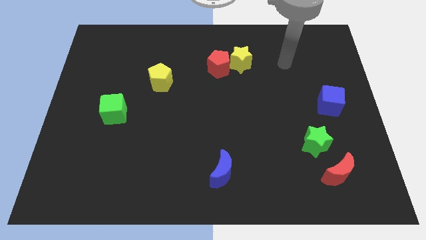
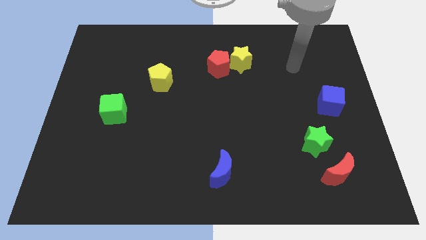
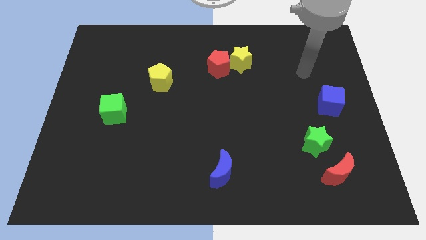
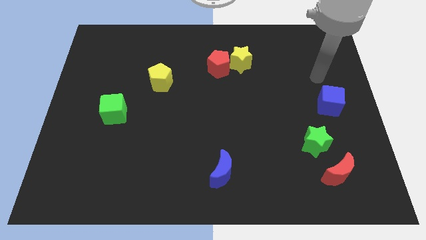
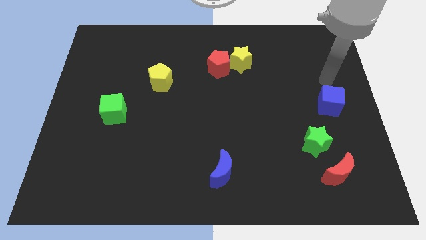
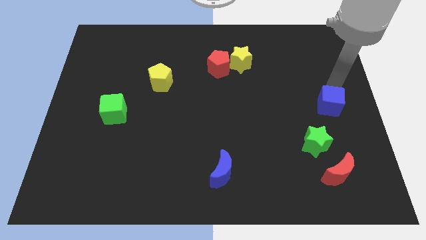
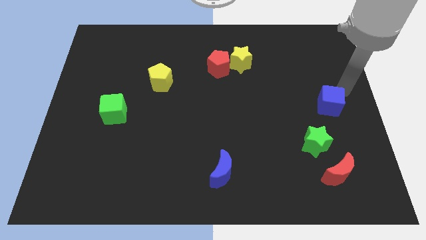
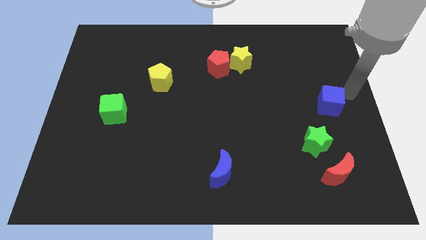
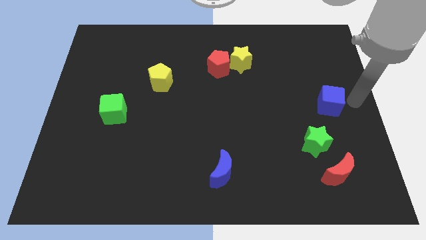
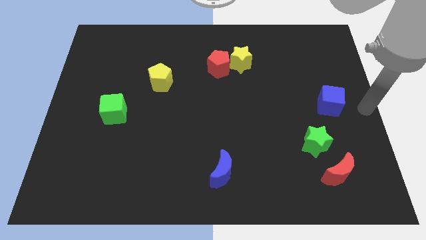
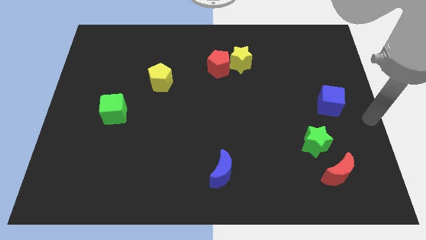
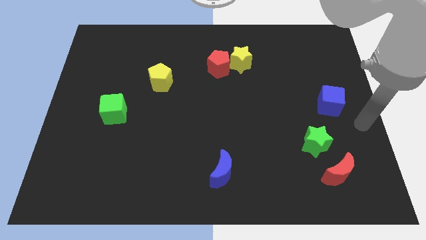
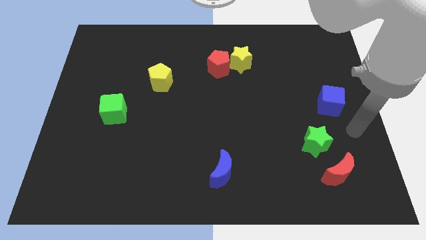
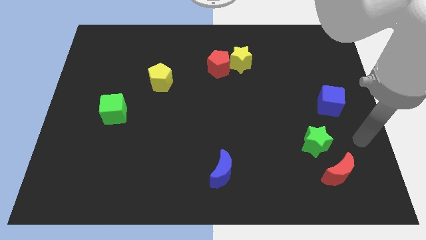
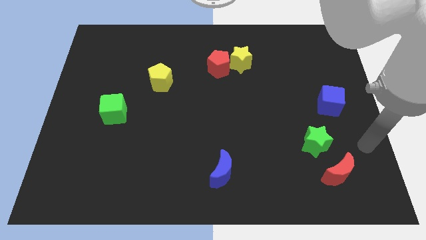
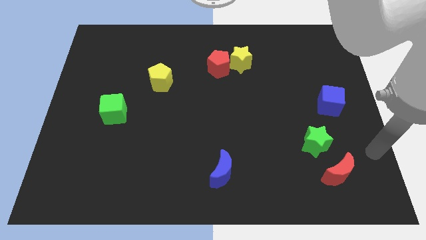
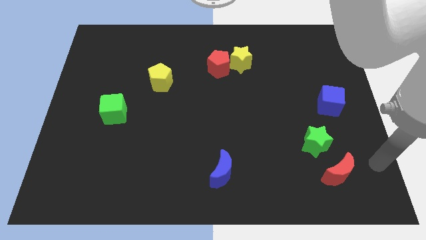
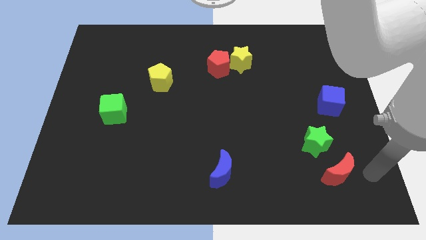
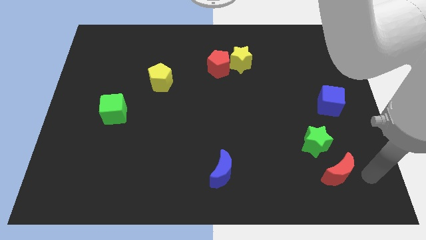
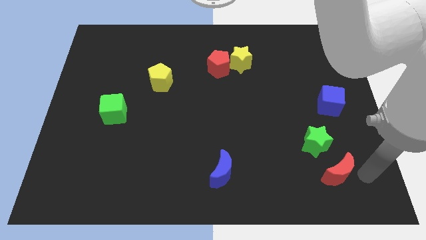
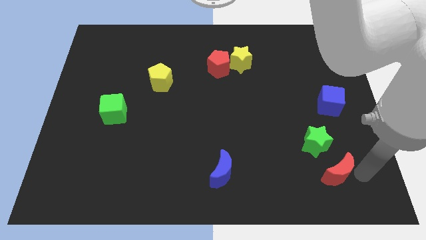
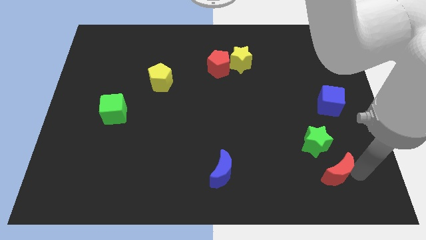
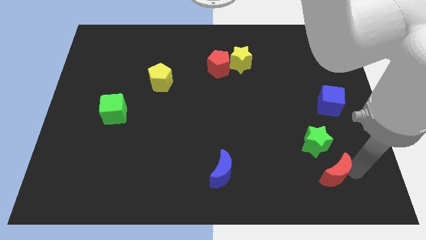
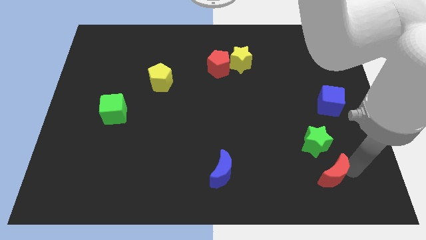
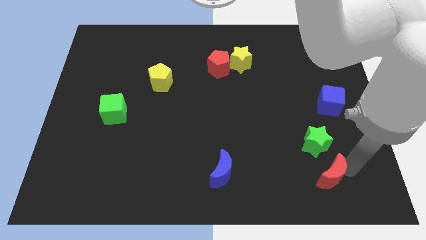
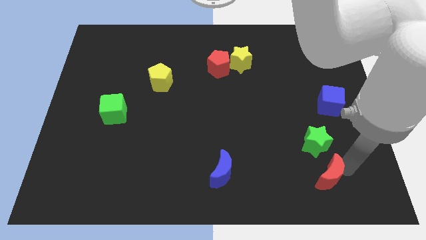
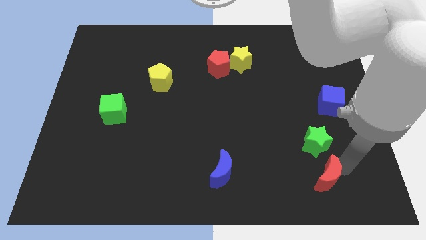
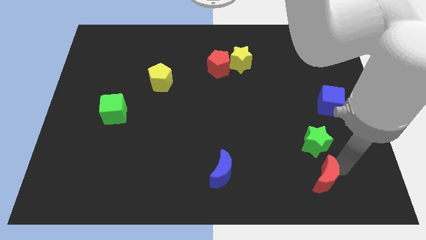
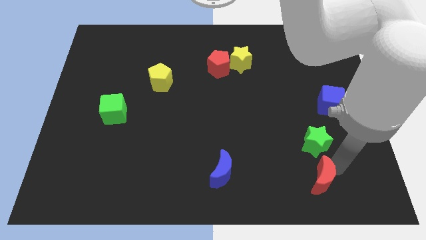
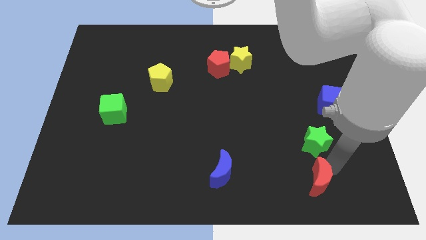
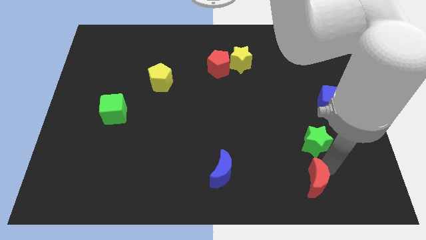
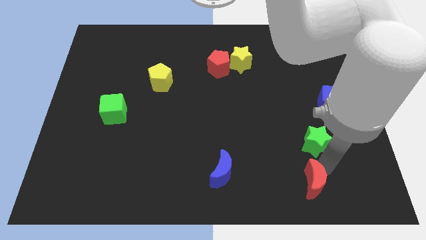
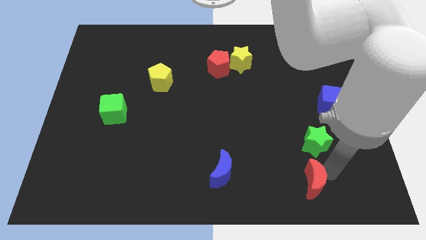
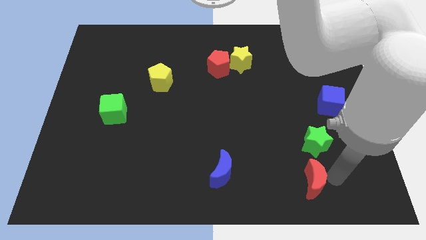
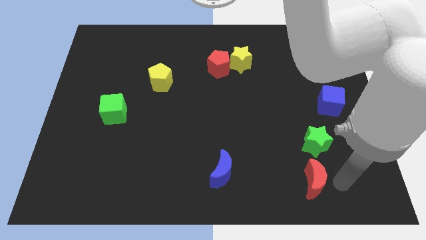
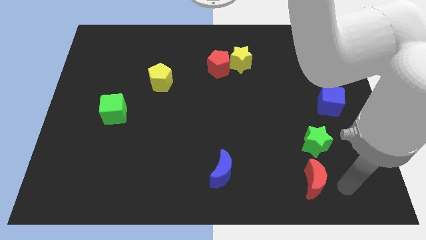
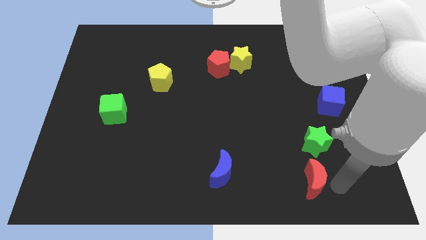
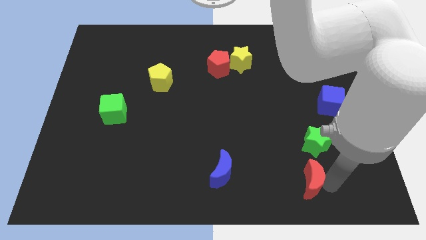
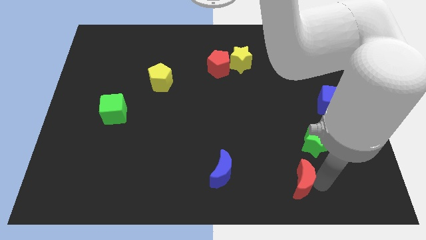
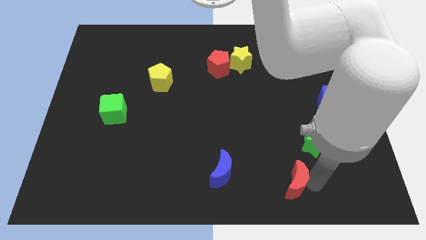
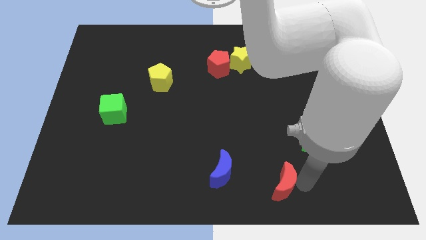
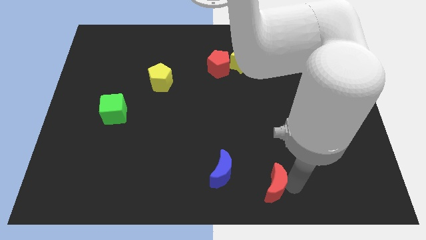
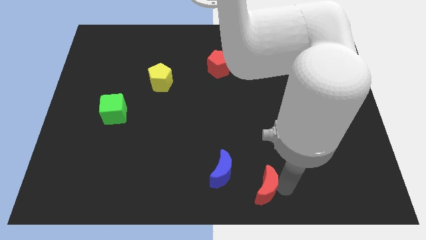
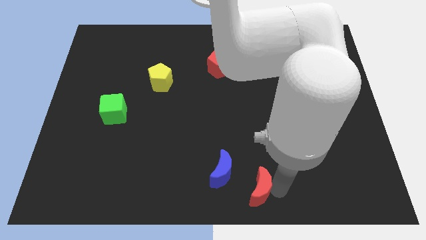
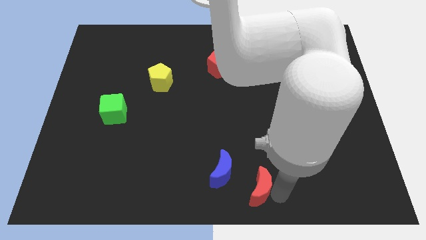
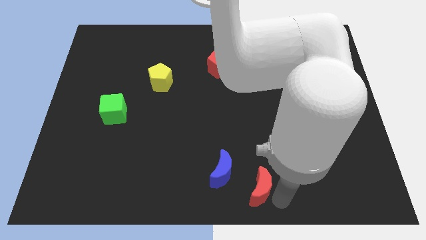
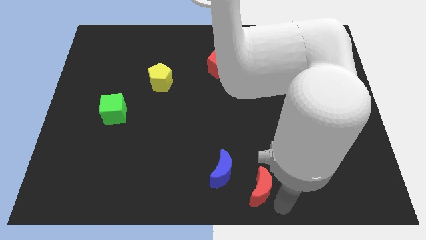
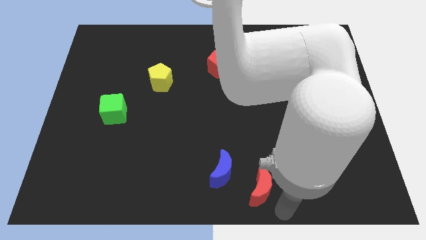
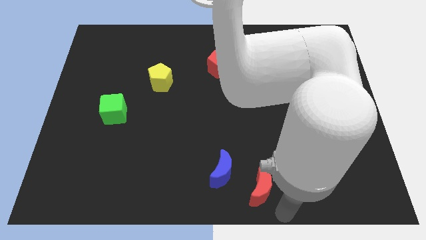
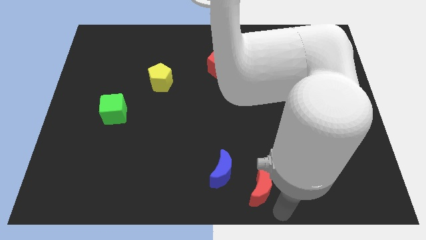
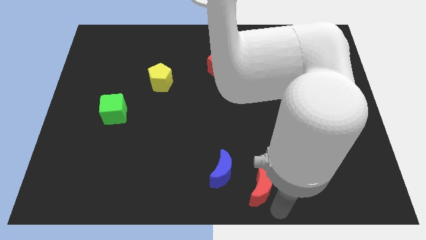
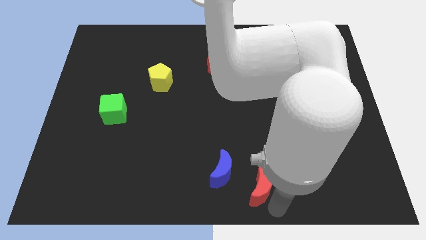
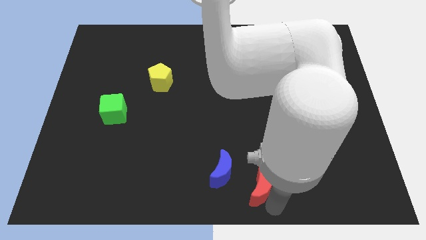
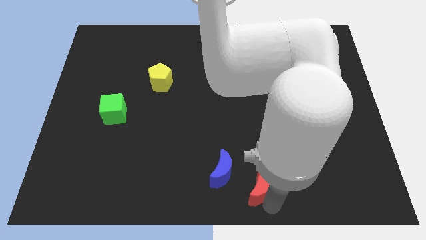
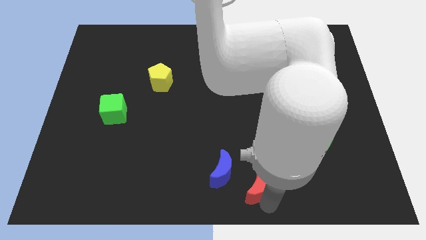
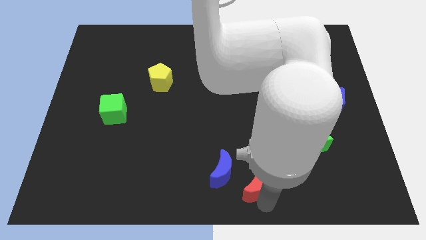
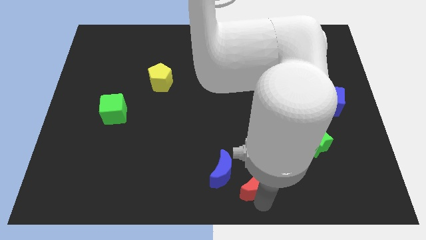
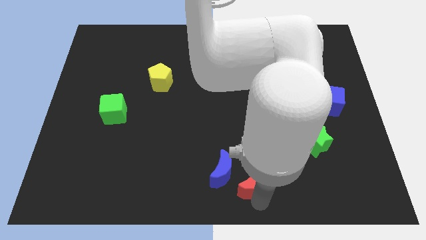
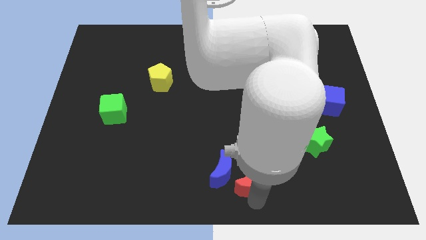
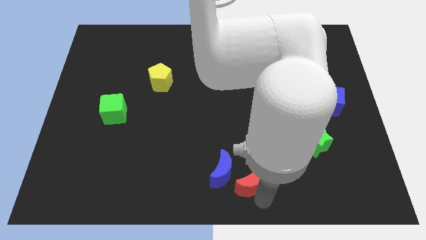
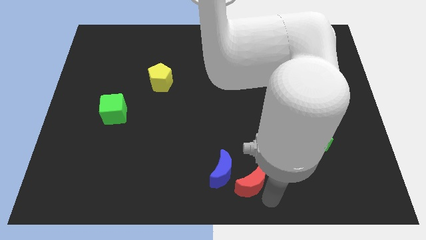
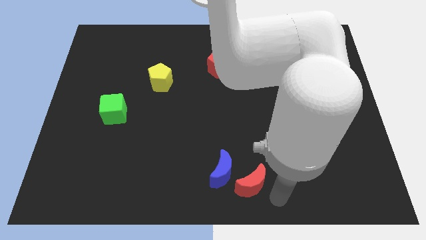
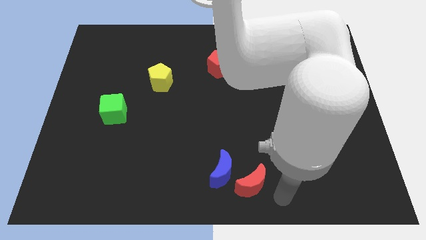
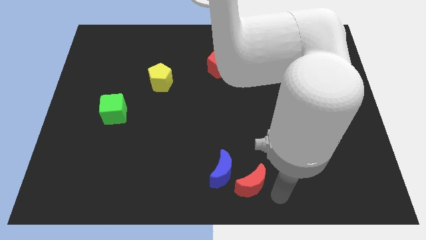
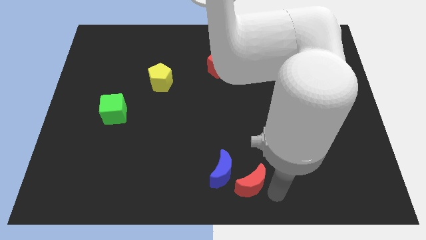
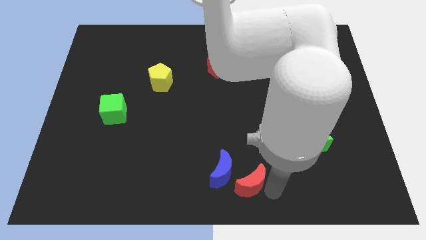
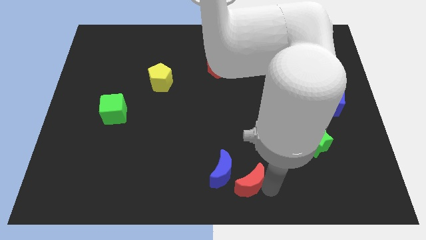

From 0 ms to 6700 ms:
slide the red moon close to the blue moon

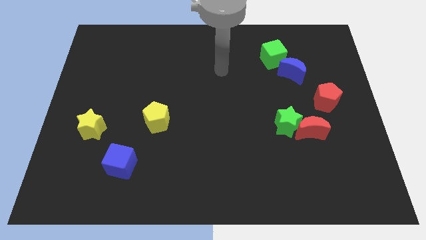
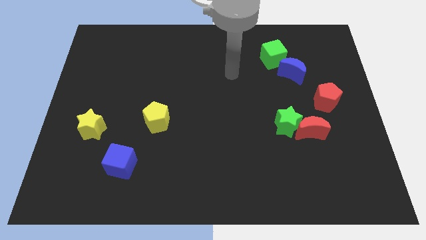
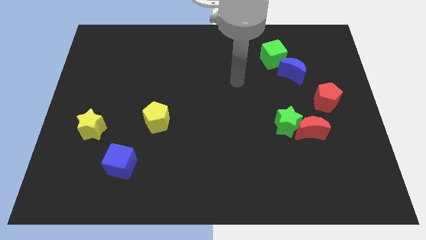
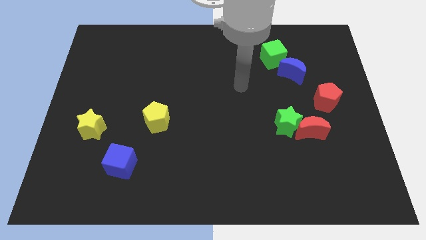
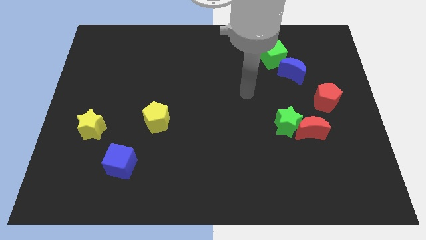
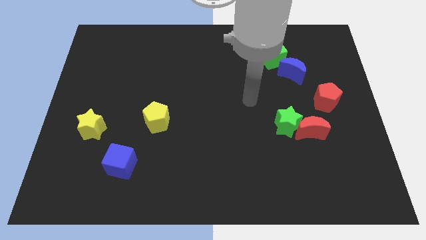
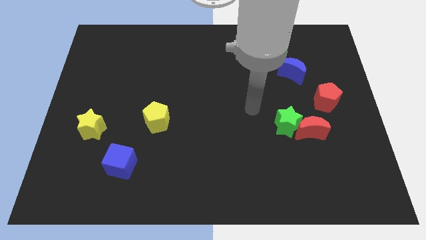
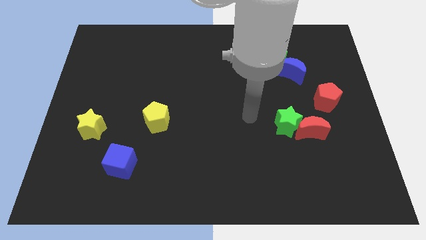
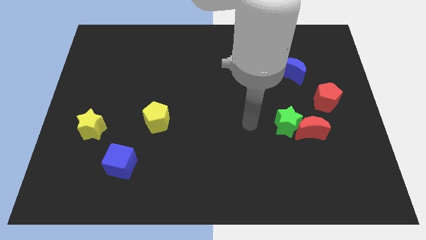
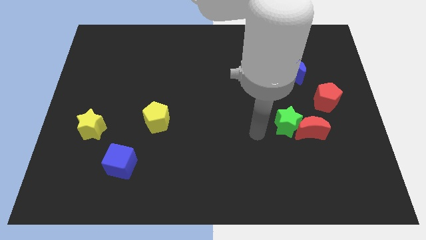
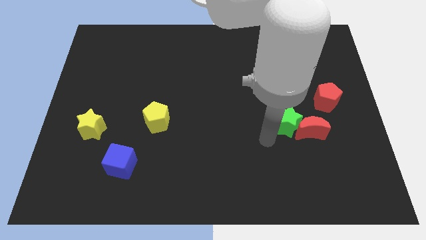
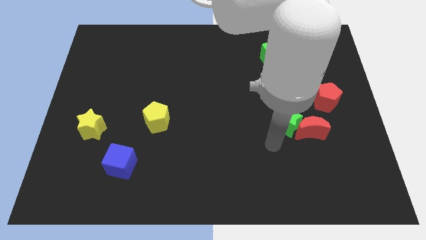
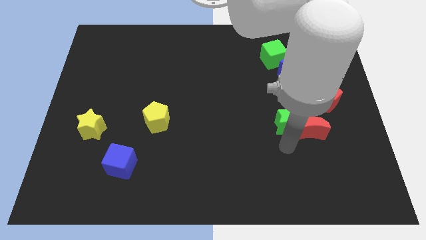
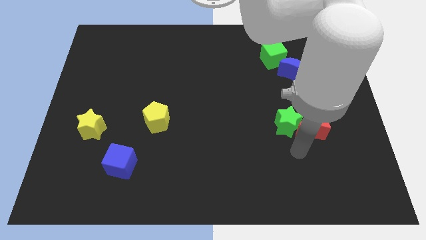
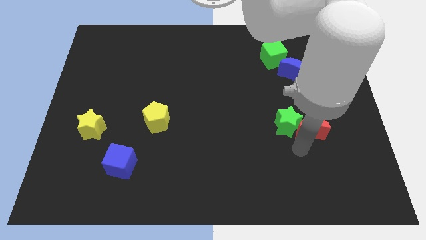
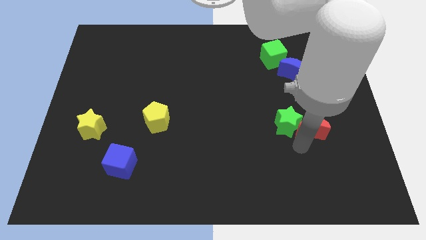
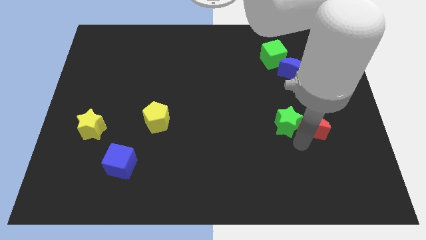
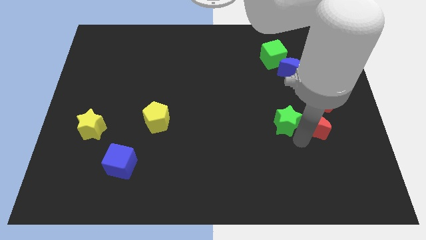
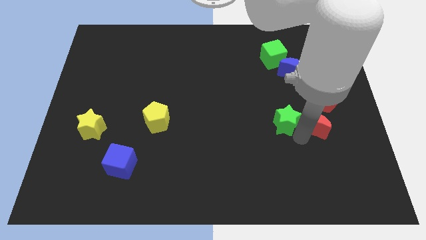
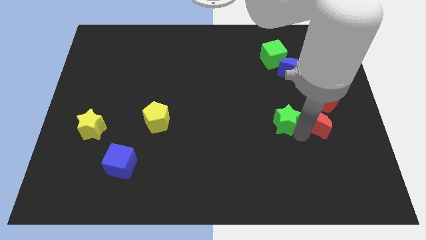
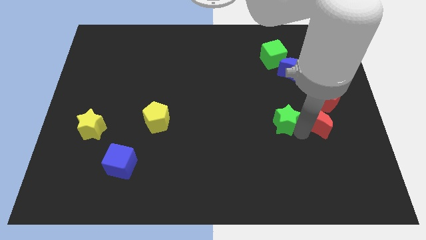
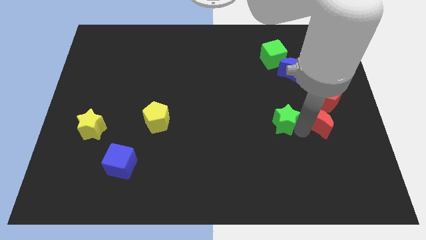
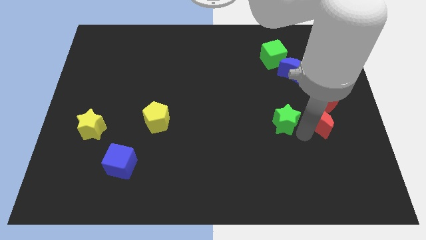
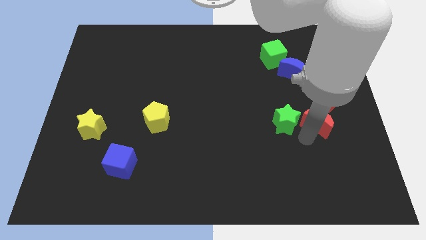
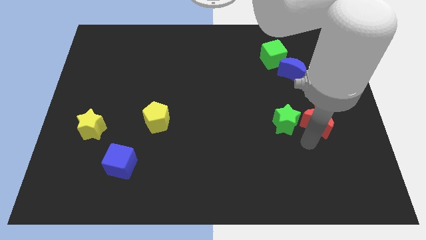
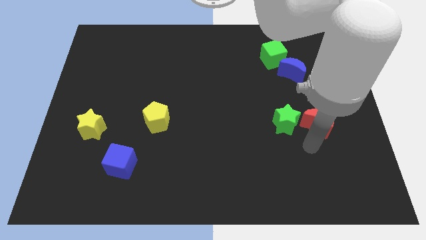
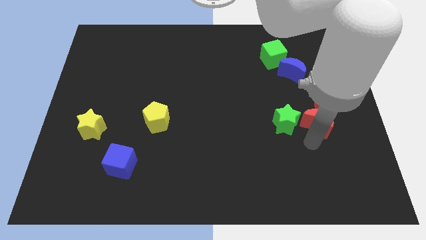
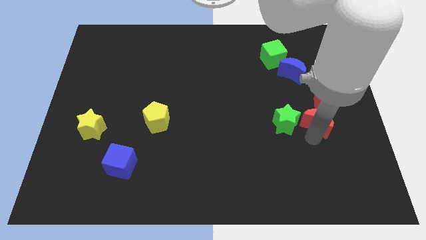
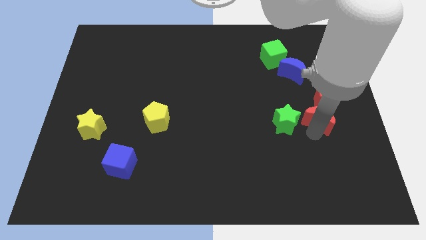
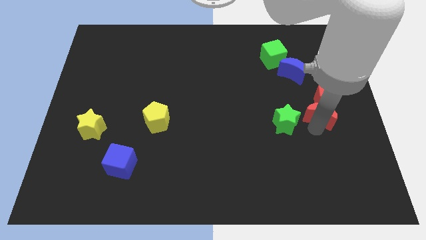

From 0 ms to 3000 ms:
put the red moon close to the red pentagon
